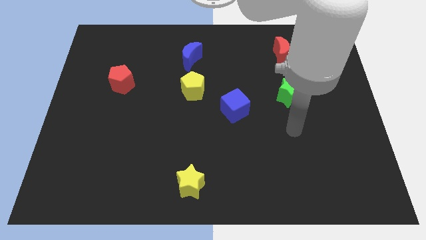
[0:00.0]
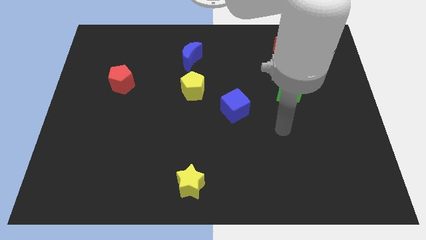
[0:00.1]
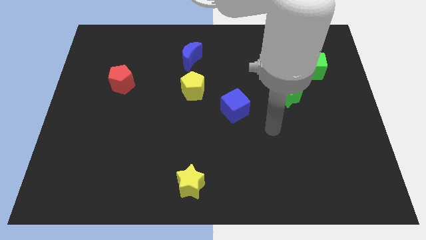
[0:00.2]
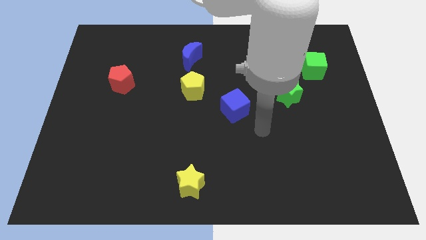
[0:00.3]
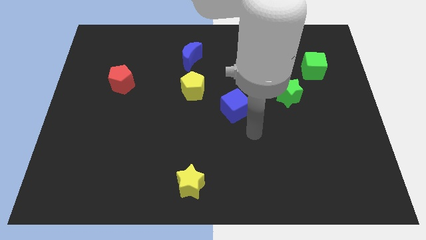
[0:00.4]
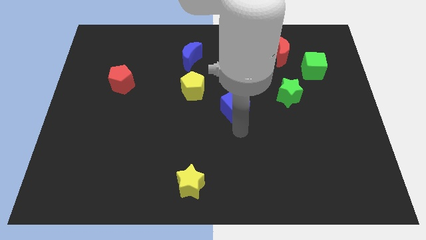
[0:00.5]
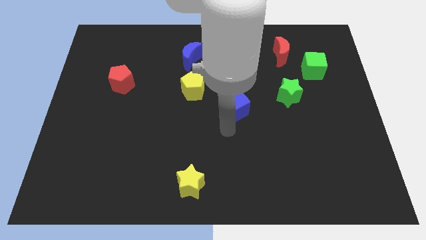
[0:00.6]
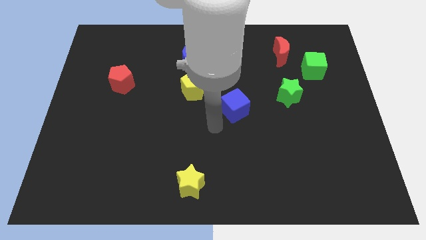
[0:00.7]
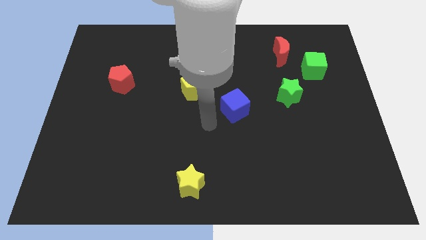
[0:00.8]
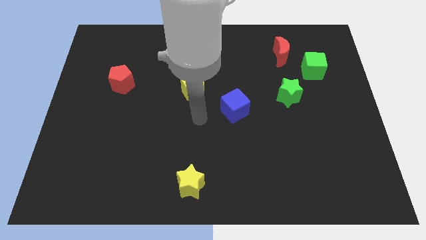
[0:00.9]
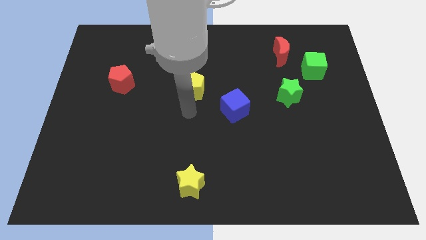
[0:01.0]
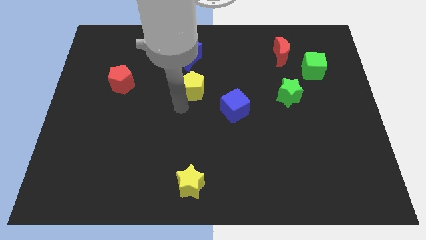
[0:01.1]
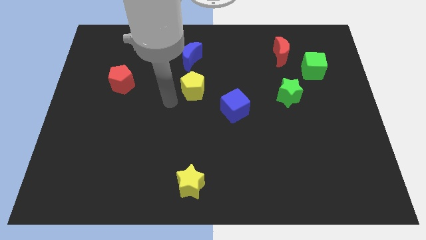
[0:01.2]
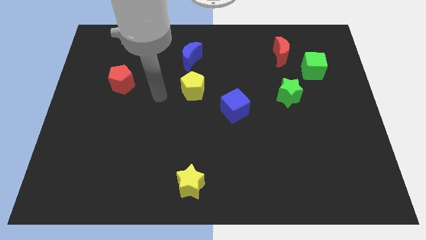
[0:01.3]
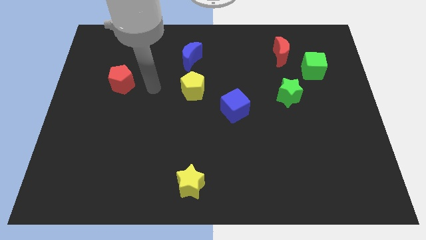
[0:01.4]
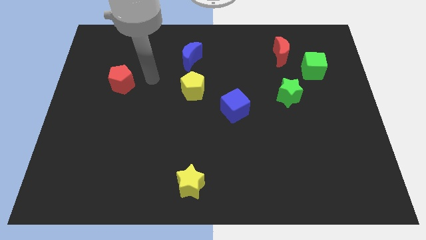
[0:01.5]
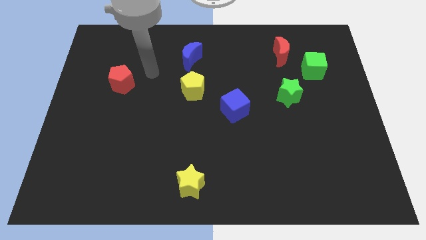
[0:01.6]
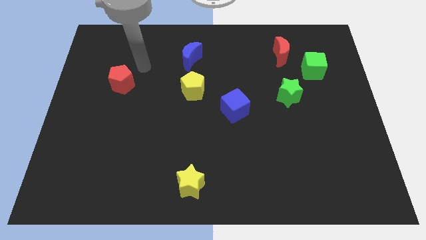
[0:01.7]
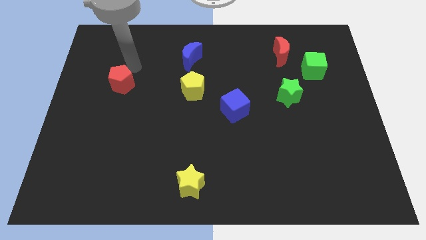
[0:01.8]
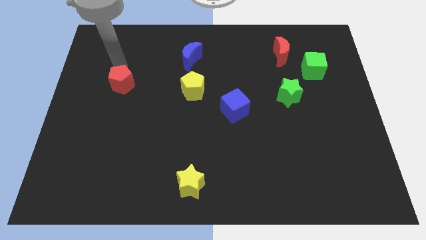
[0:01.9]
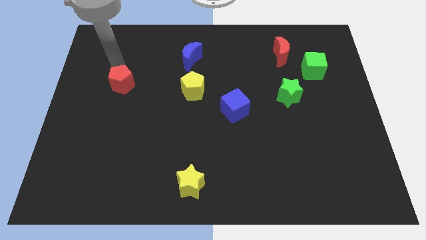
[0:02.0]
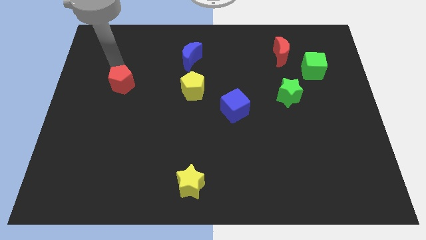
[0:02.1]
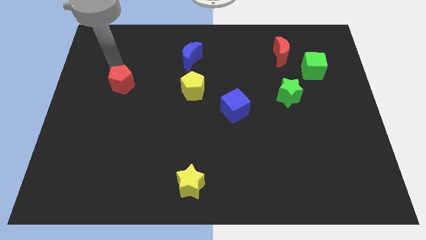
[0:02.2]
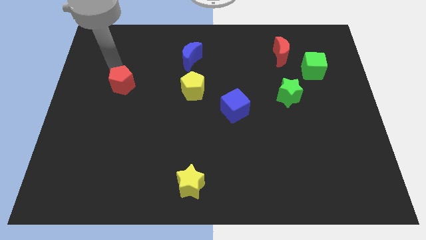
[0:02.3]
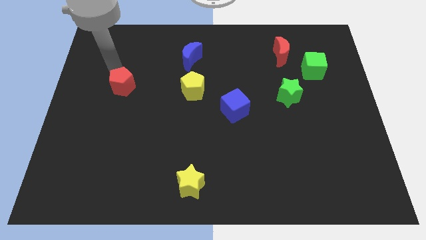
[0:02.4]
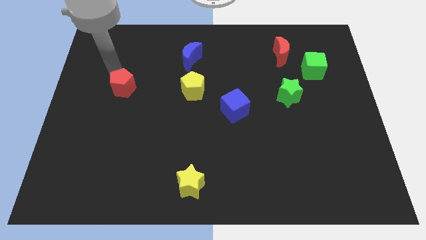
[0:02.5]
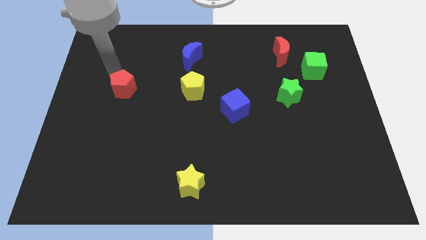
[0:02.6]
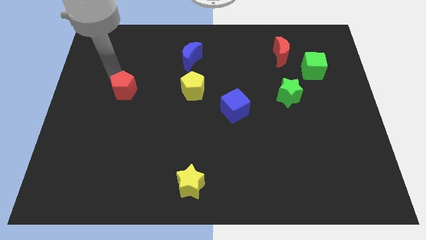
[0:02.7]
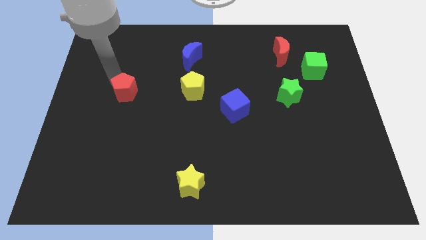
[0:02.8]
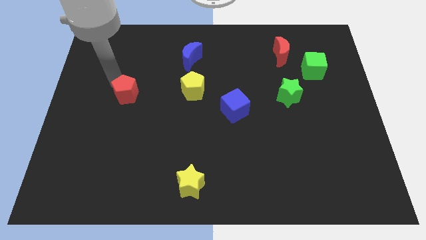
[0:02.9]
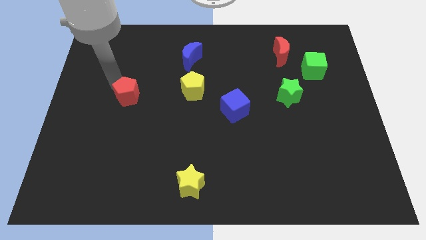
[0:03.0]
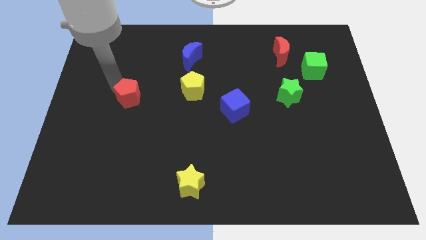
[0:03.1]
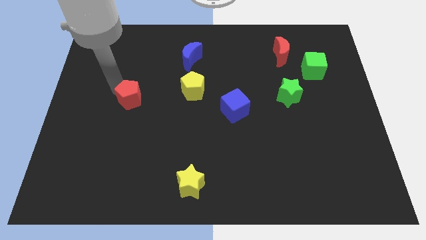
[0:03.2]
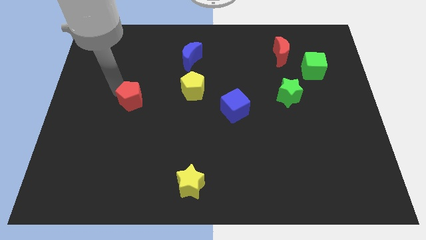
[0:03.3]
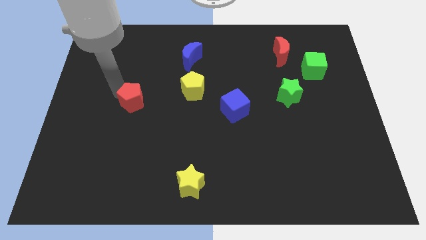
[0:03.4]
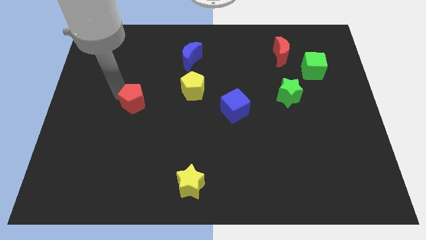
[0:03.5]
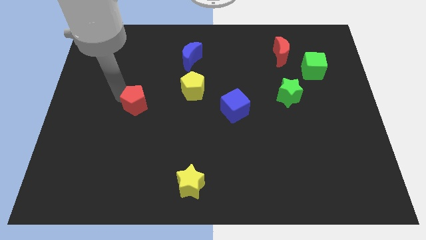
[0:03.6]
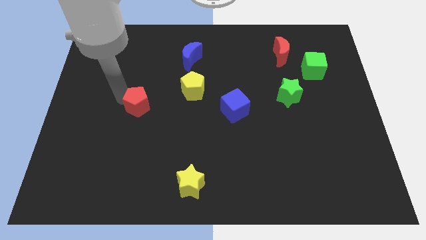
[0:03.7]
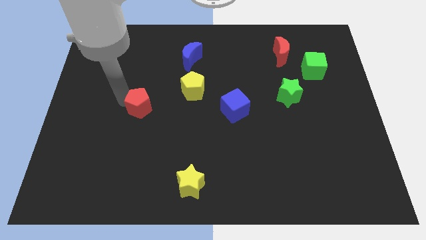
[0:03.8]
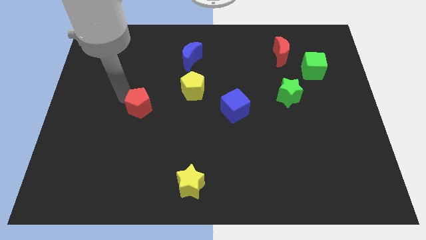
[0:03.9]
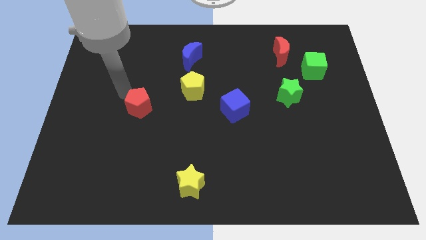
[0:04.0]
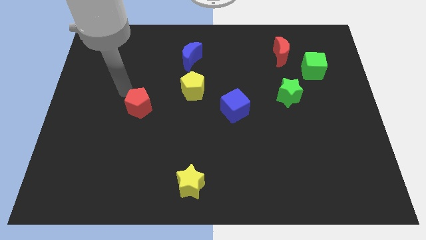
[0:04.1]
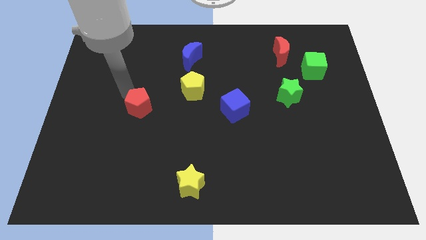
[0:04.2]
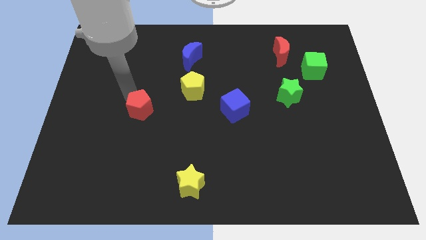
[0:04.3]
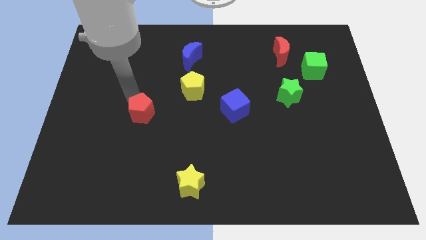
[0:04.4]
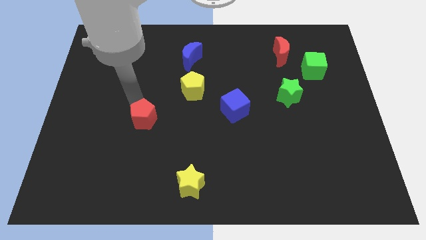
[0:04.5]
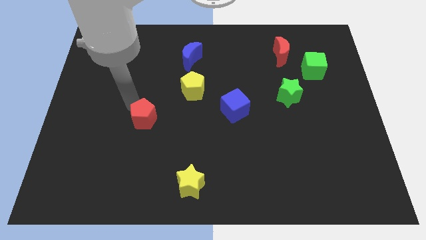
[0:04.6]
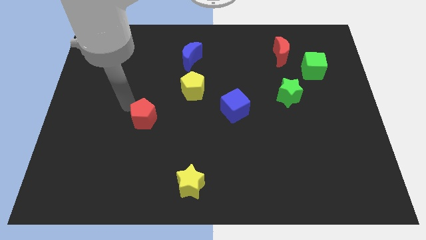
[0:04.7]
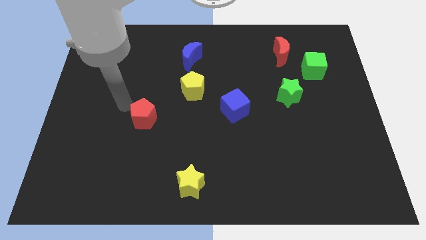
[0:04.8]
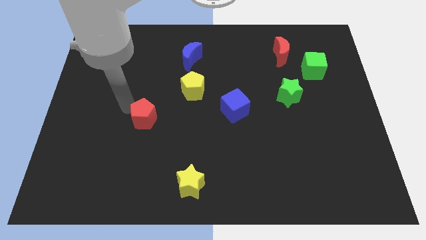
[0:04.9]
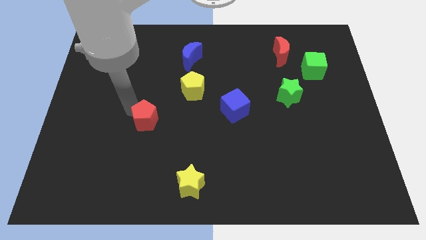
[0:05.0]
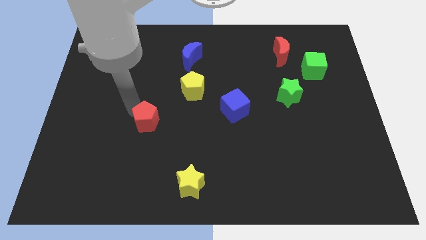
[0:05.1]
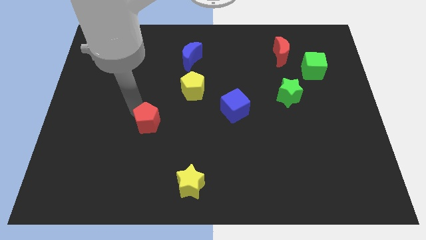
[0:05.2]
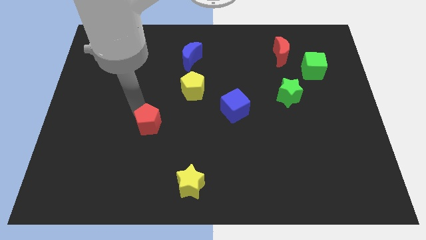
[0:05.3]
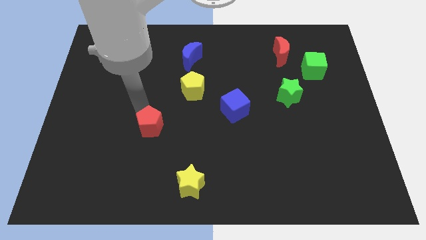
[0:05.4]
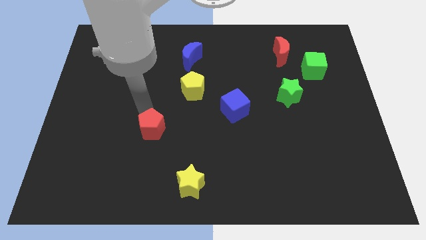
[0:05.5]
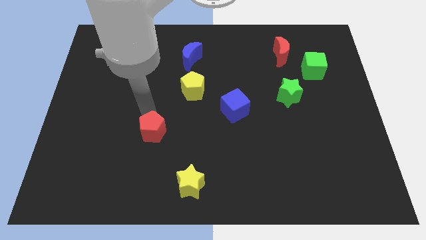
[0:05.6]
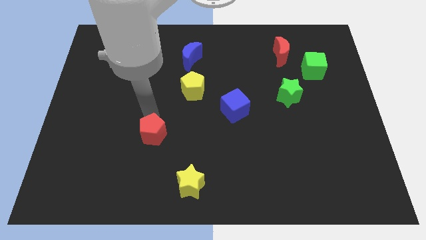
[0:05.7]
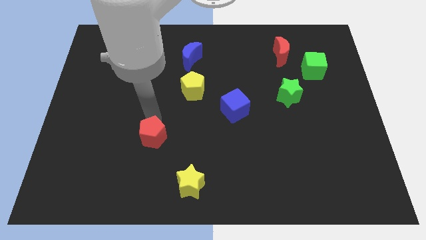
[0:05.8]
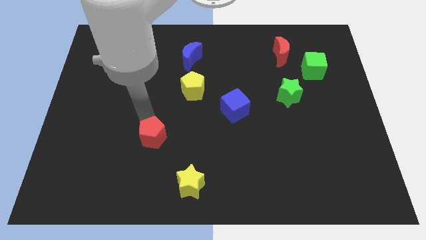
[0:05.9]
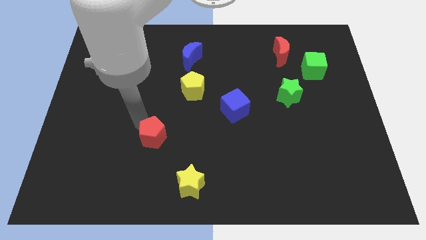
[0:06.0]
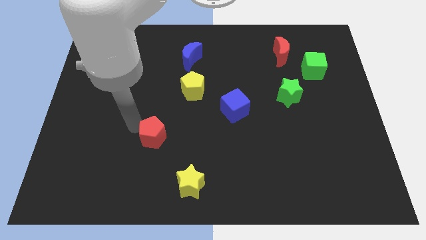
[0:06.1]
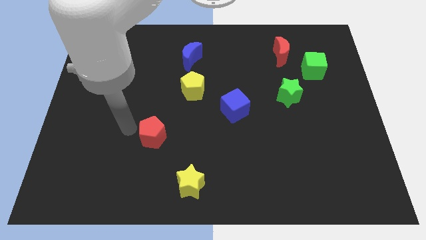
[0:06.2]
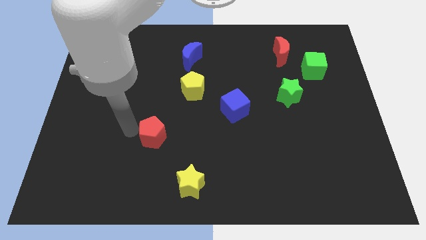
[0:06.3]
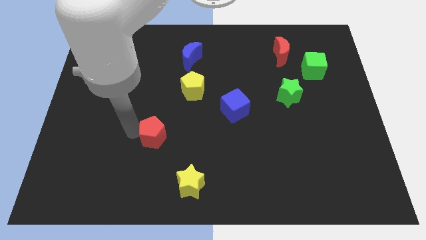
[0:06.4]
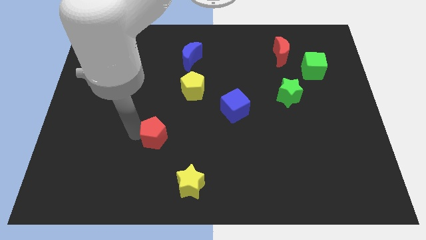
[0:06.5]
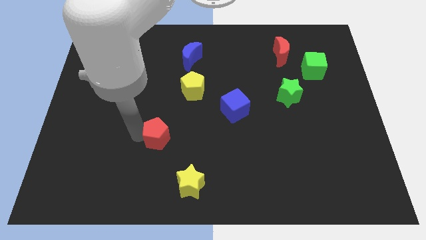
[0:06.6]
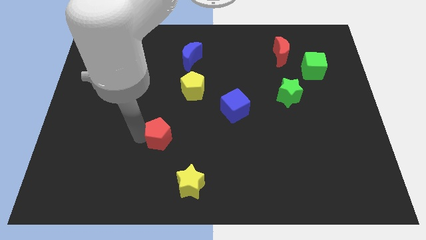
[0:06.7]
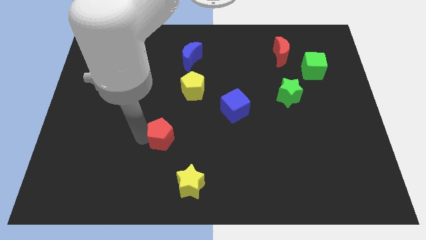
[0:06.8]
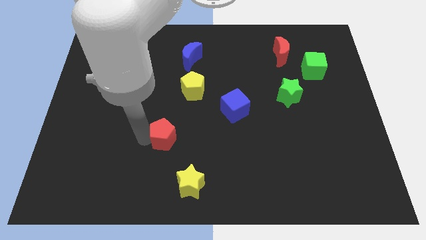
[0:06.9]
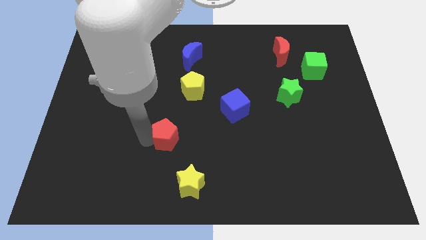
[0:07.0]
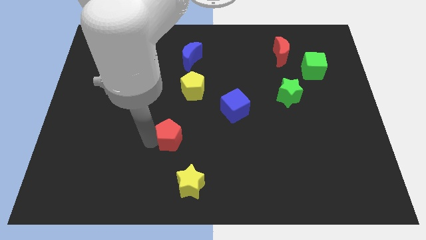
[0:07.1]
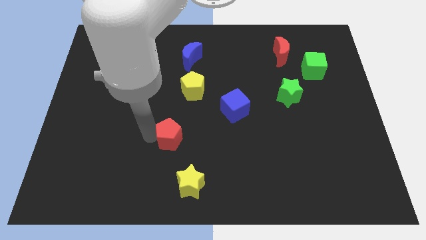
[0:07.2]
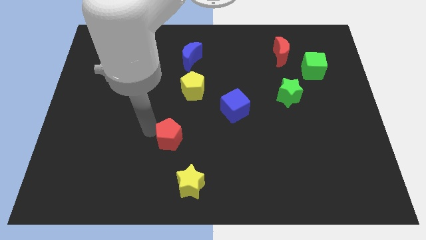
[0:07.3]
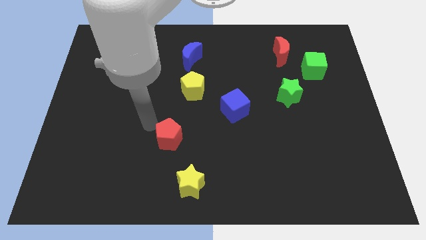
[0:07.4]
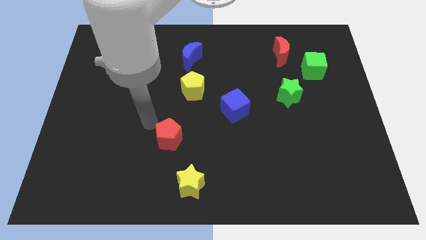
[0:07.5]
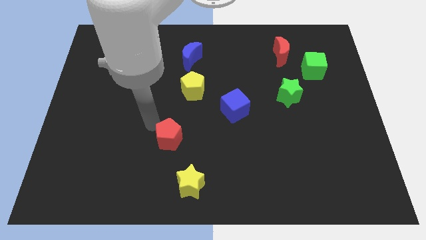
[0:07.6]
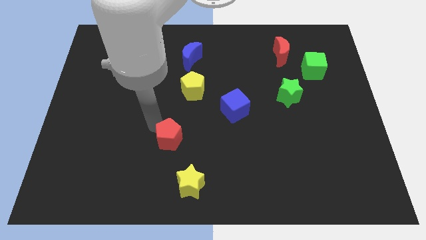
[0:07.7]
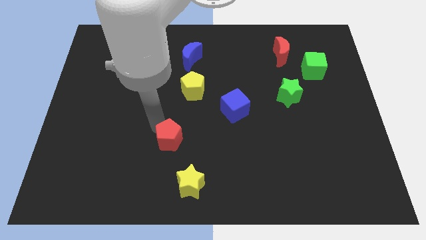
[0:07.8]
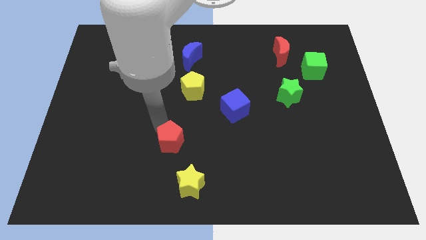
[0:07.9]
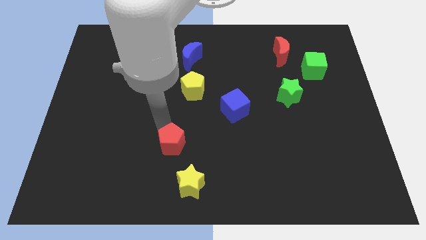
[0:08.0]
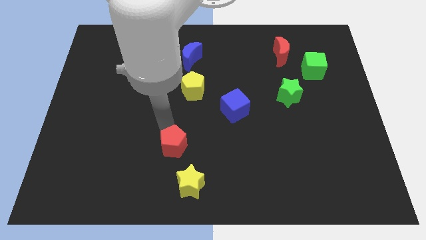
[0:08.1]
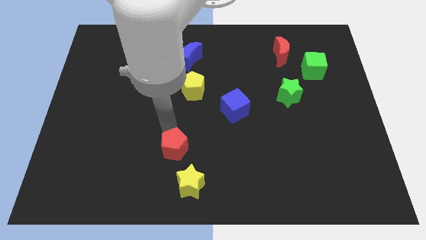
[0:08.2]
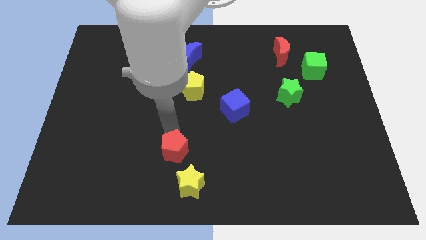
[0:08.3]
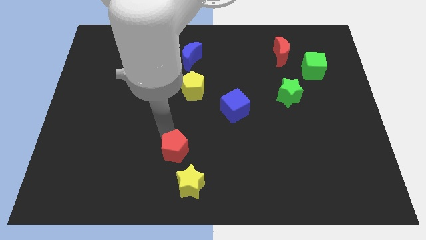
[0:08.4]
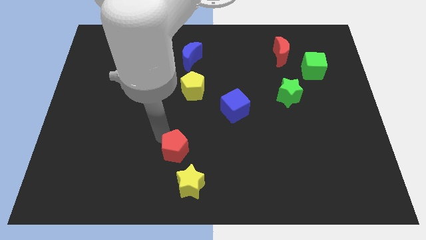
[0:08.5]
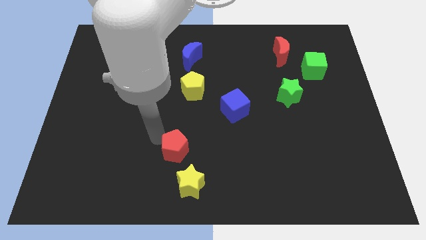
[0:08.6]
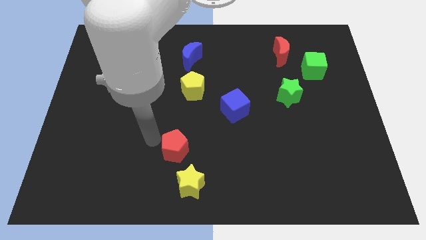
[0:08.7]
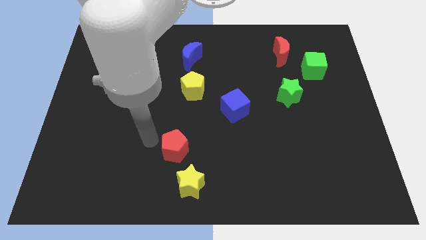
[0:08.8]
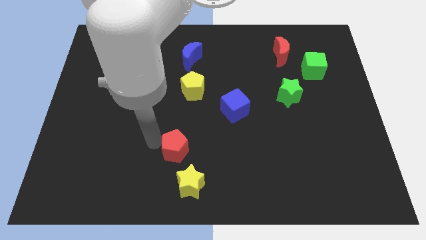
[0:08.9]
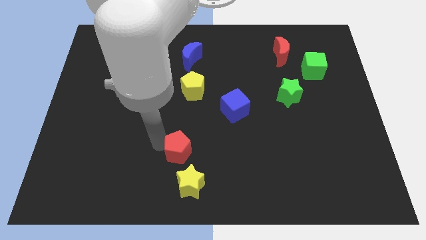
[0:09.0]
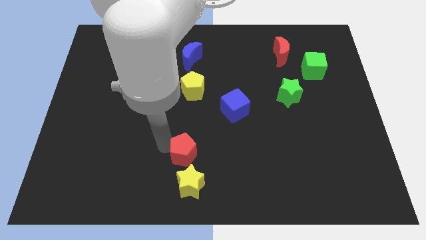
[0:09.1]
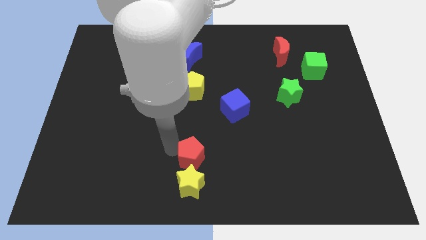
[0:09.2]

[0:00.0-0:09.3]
push the red pentagon to the top right side of the yellow star
